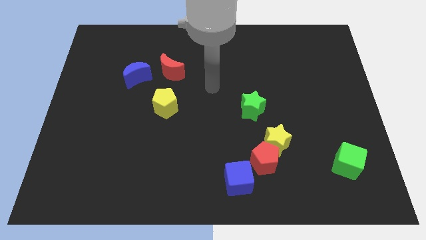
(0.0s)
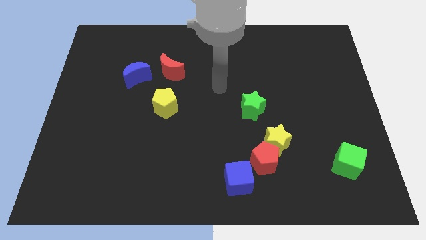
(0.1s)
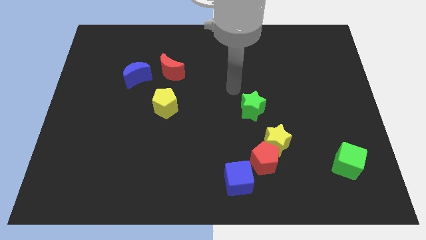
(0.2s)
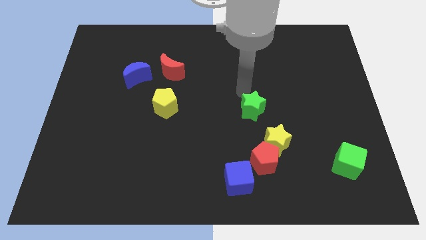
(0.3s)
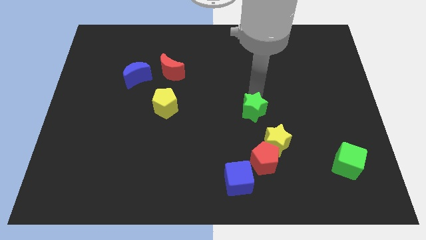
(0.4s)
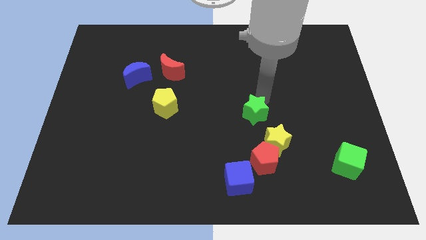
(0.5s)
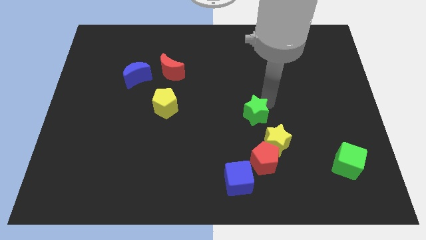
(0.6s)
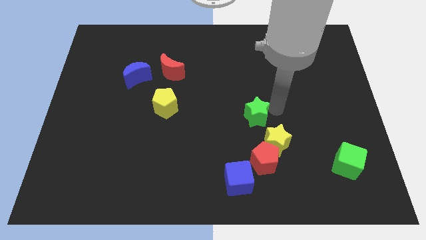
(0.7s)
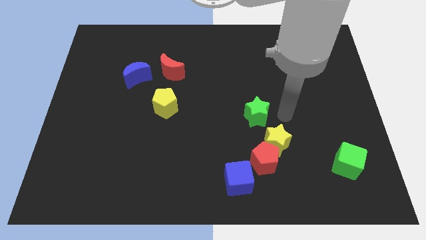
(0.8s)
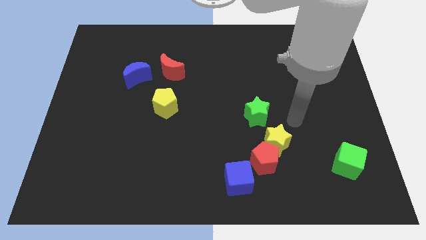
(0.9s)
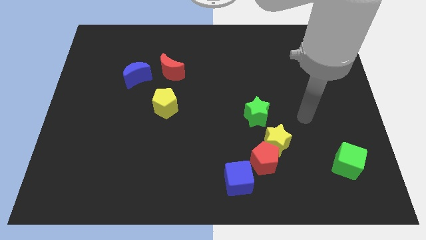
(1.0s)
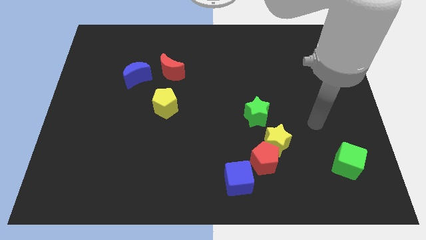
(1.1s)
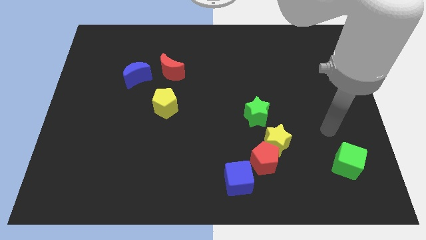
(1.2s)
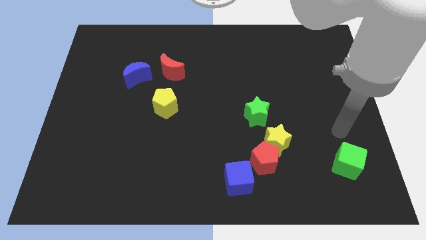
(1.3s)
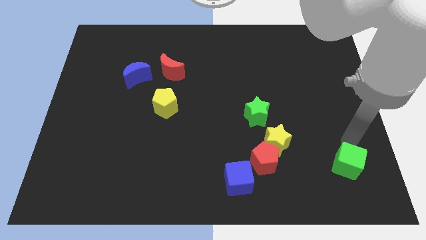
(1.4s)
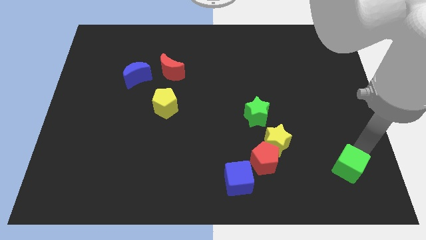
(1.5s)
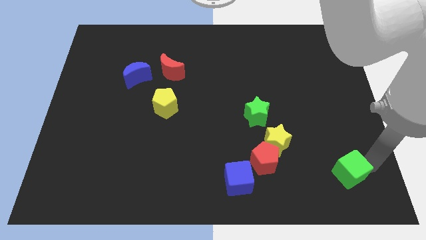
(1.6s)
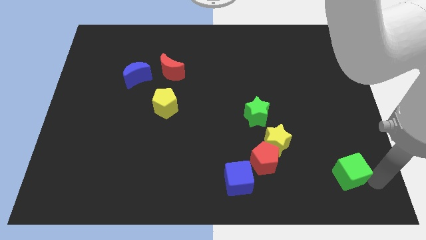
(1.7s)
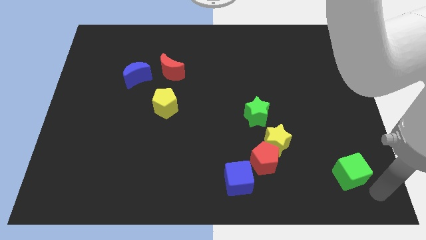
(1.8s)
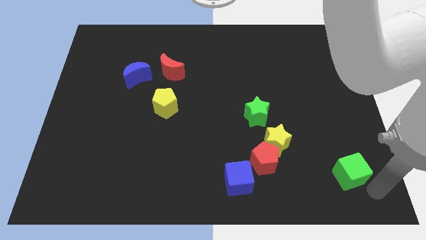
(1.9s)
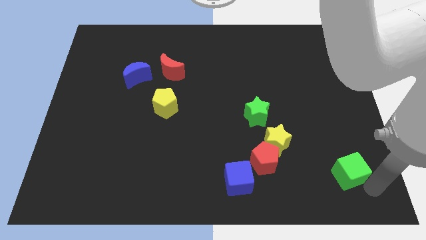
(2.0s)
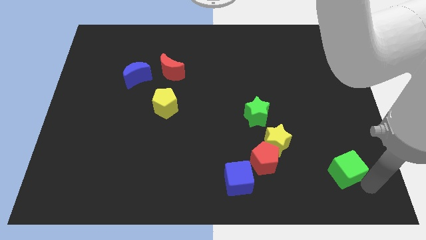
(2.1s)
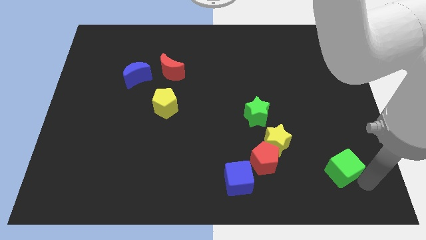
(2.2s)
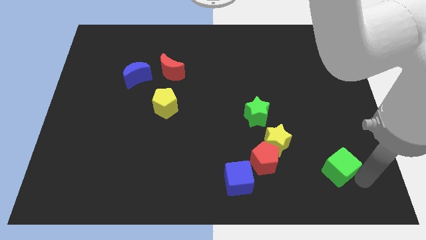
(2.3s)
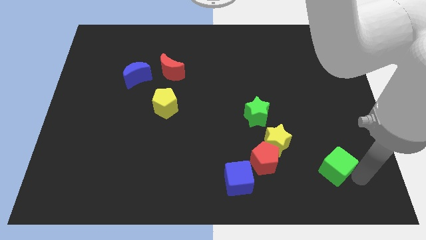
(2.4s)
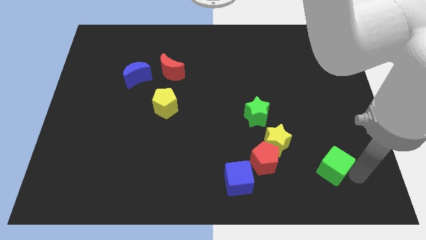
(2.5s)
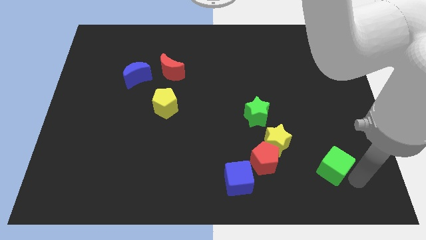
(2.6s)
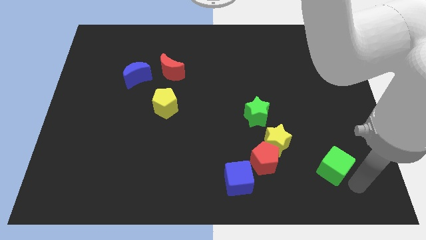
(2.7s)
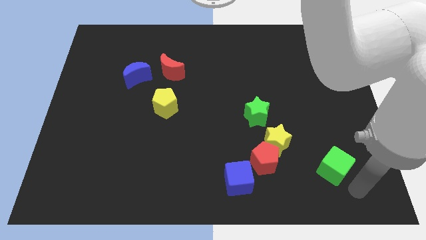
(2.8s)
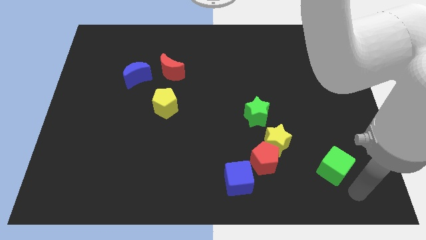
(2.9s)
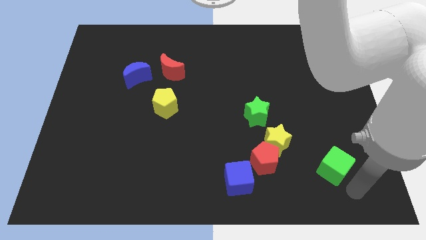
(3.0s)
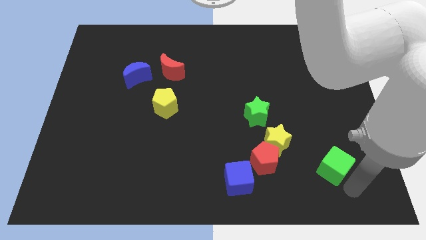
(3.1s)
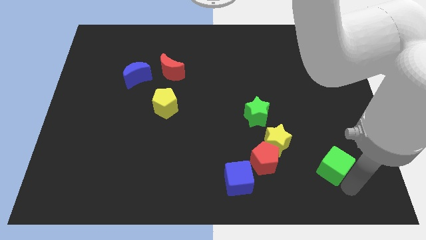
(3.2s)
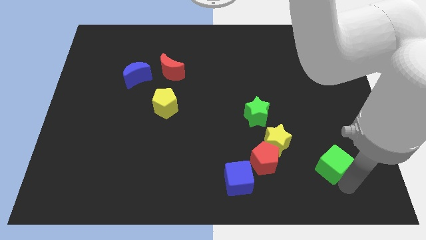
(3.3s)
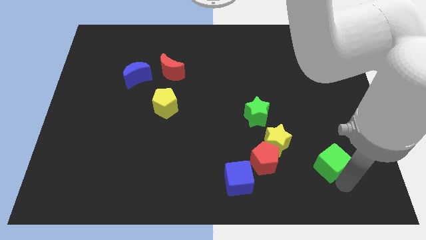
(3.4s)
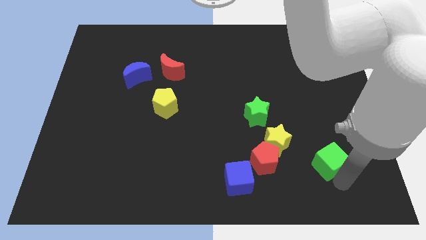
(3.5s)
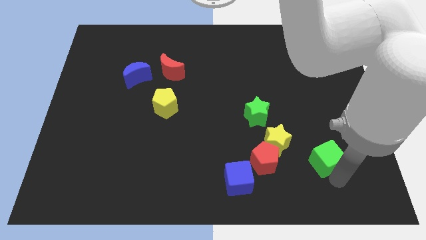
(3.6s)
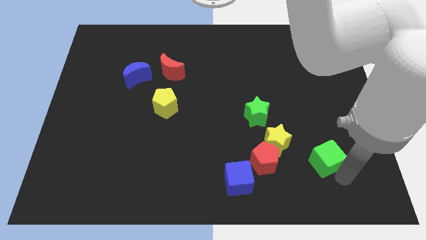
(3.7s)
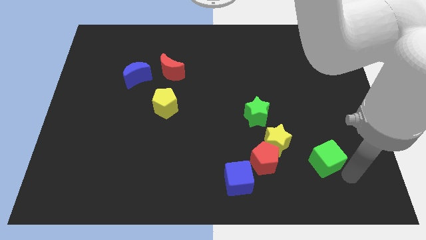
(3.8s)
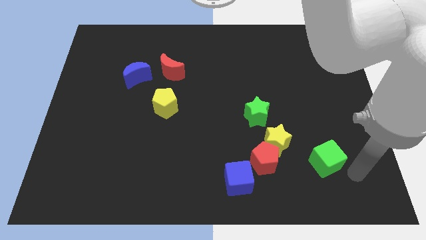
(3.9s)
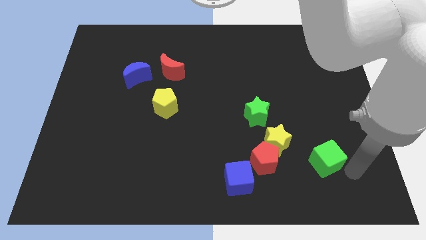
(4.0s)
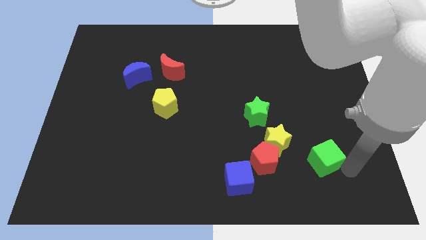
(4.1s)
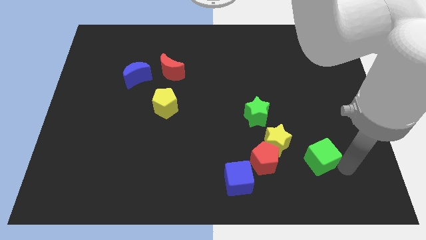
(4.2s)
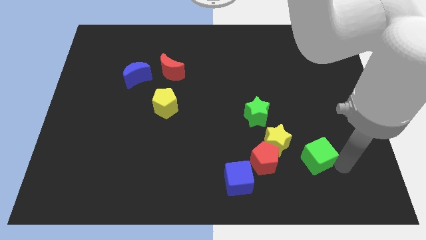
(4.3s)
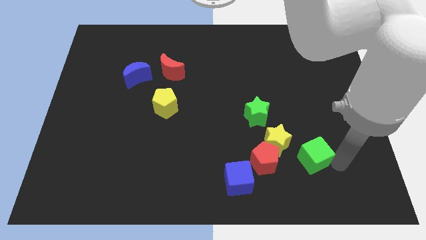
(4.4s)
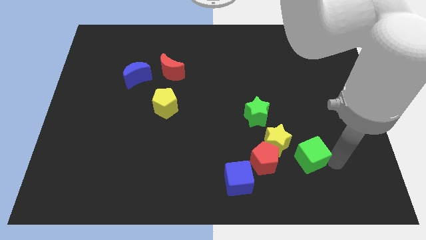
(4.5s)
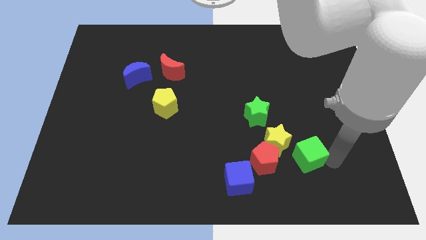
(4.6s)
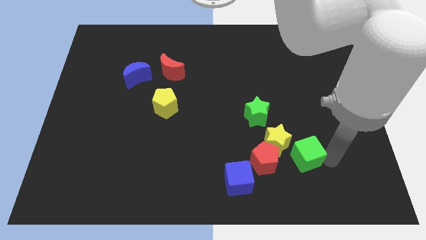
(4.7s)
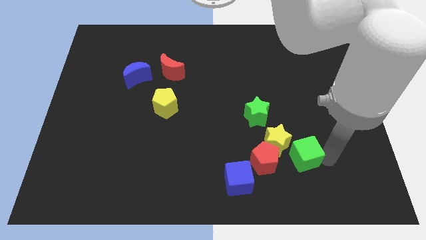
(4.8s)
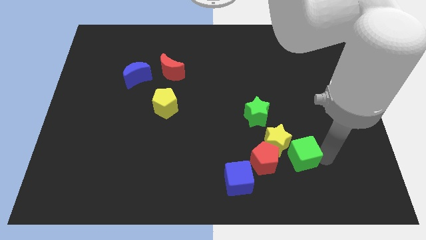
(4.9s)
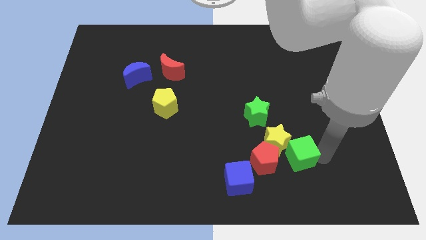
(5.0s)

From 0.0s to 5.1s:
push the green cube next to the yellow star

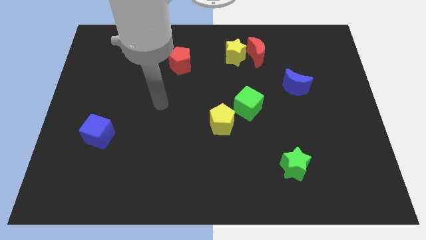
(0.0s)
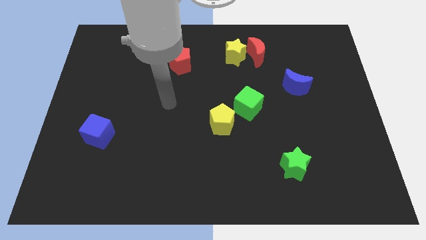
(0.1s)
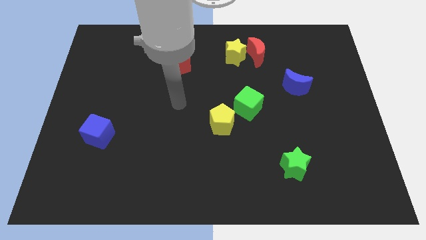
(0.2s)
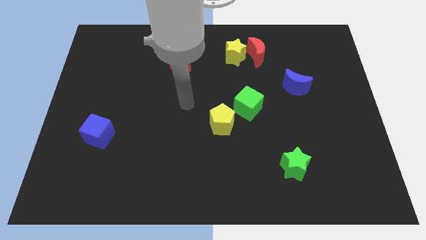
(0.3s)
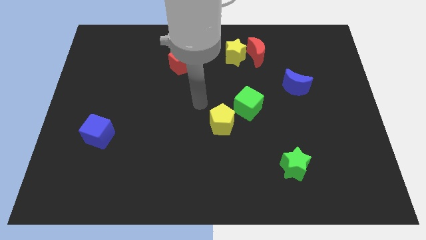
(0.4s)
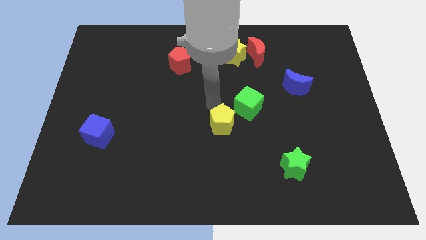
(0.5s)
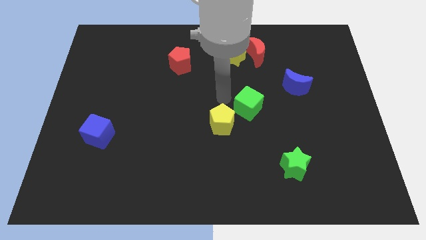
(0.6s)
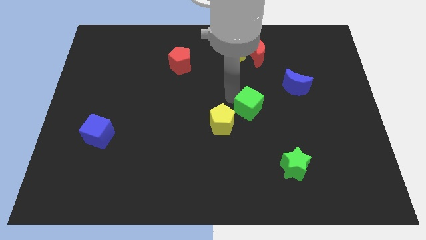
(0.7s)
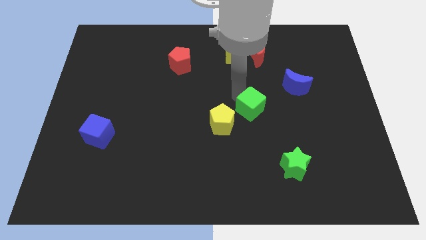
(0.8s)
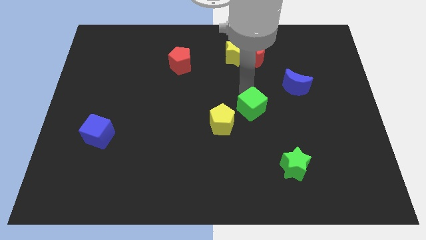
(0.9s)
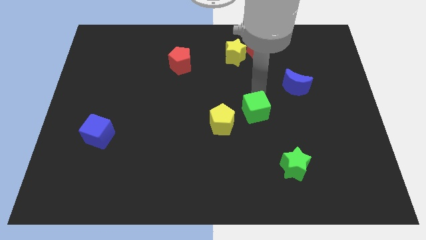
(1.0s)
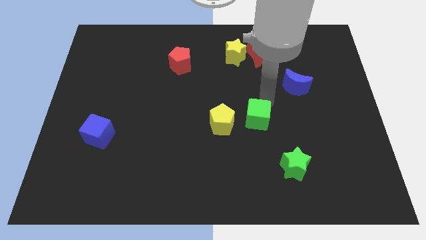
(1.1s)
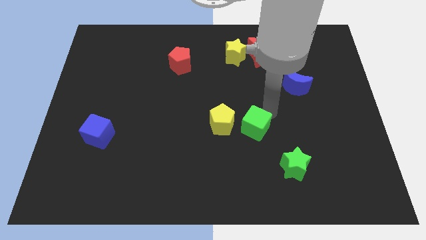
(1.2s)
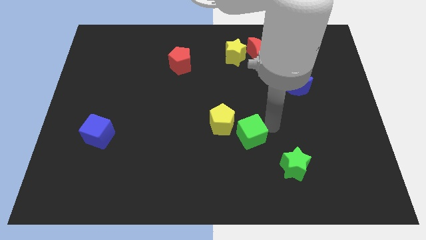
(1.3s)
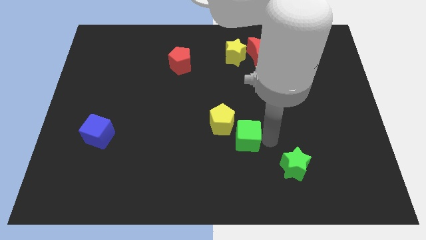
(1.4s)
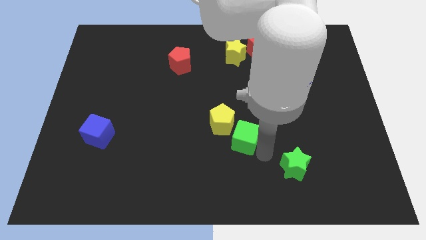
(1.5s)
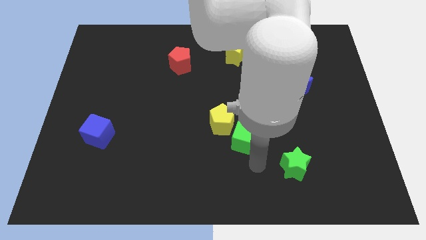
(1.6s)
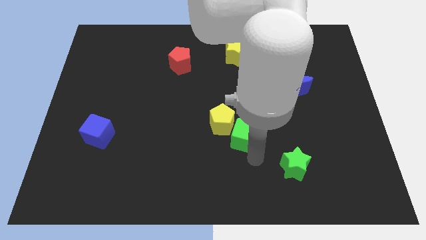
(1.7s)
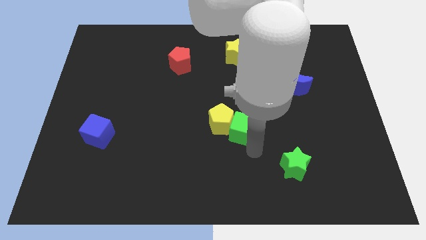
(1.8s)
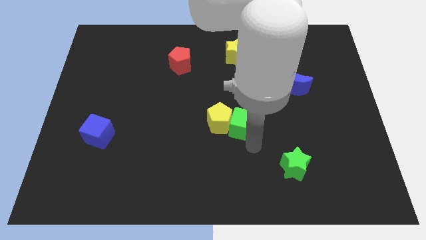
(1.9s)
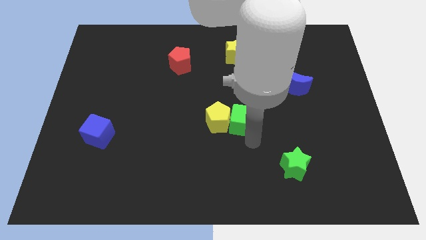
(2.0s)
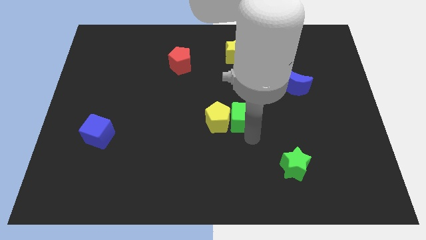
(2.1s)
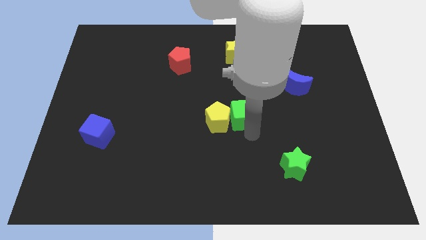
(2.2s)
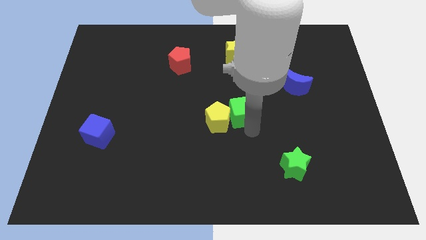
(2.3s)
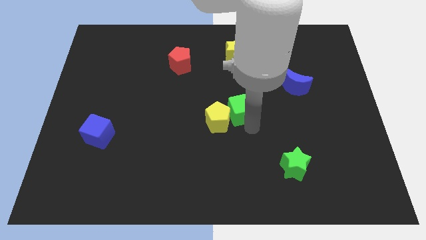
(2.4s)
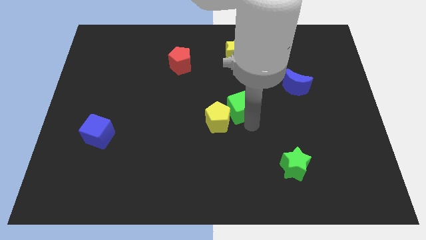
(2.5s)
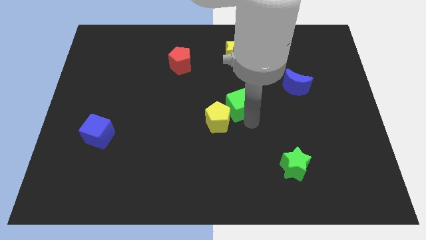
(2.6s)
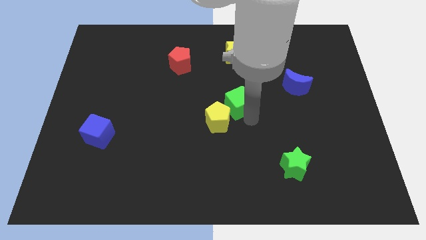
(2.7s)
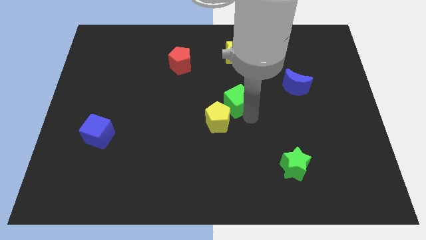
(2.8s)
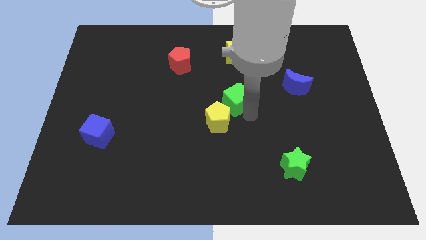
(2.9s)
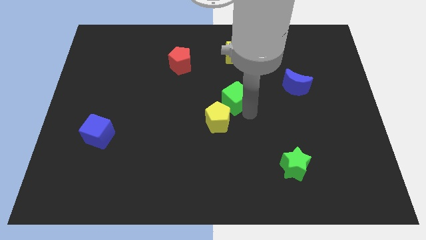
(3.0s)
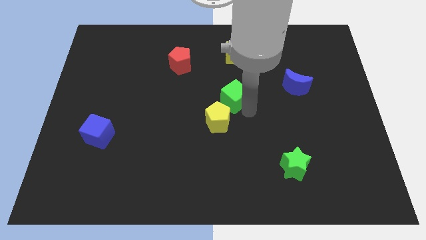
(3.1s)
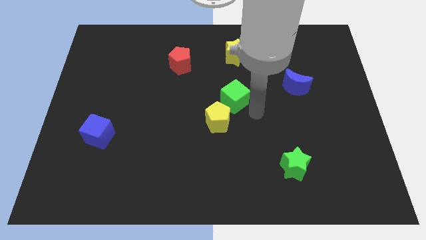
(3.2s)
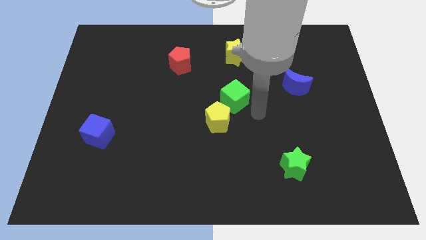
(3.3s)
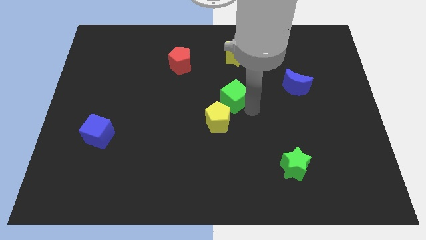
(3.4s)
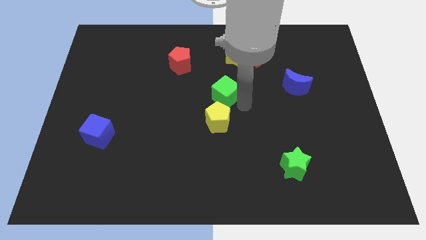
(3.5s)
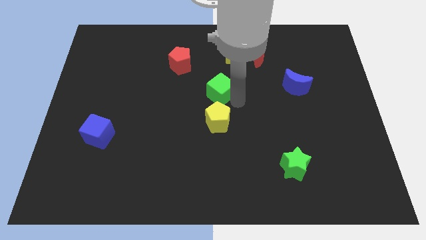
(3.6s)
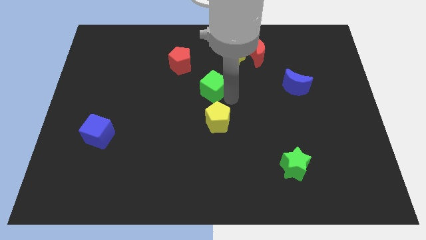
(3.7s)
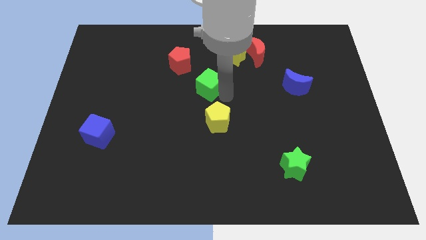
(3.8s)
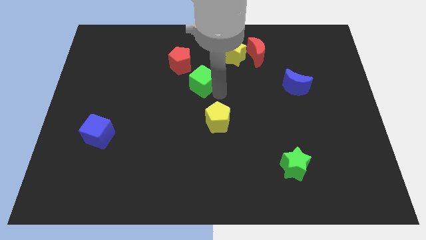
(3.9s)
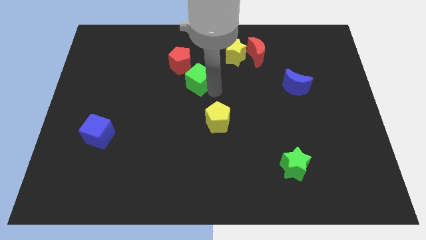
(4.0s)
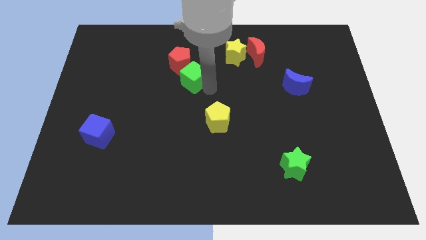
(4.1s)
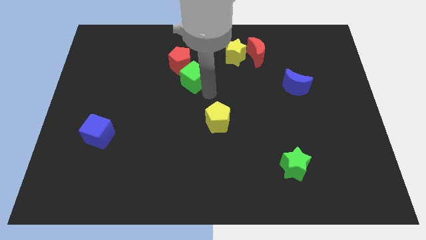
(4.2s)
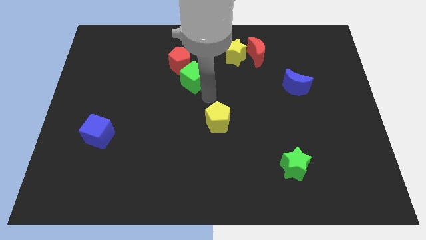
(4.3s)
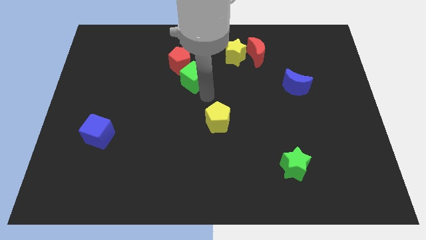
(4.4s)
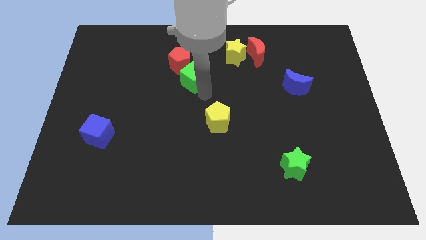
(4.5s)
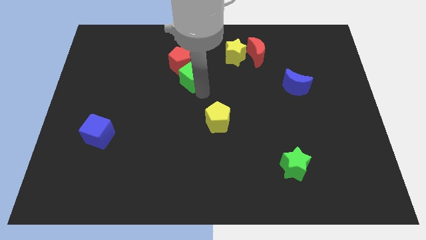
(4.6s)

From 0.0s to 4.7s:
put the green cube next to the red pentagon
